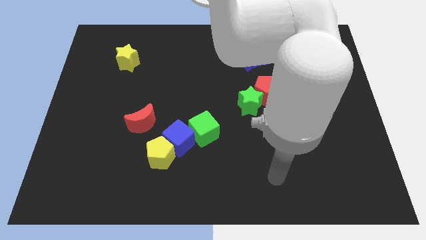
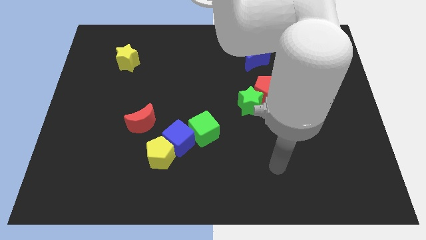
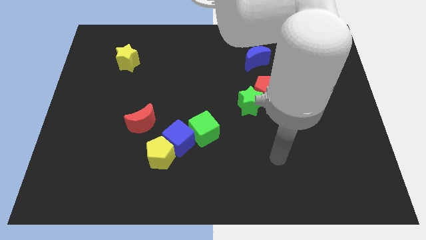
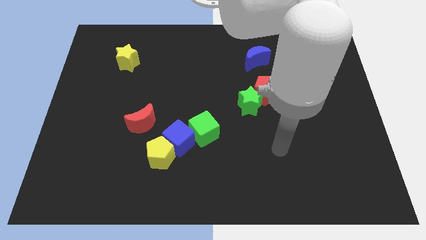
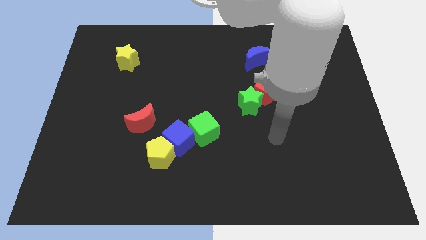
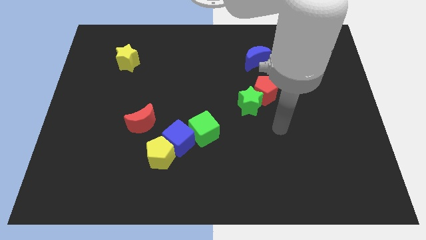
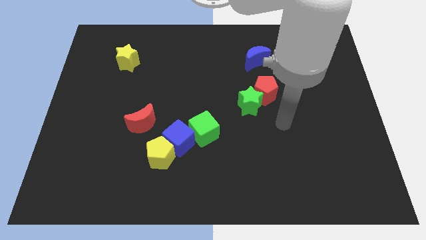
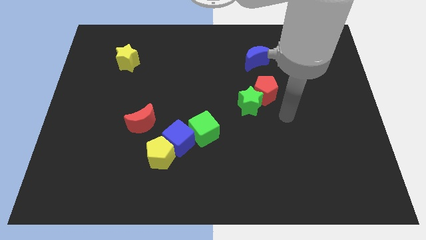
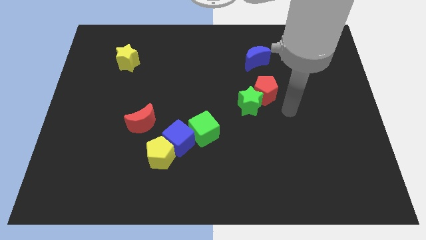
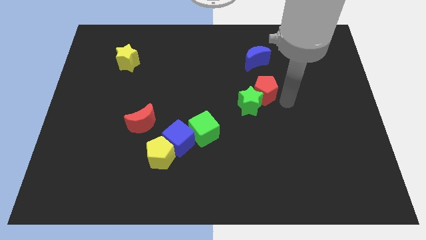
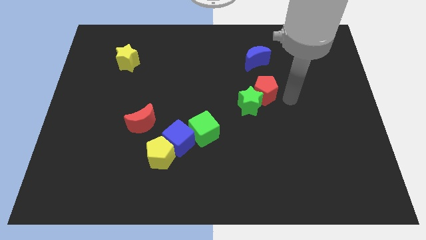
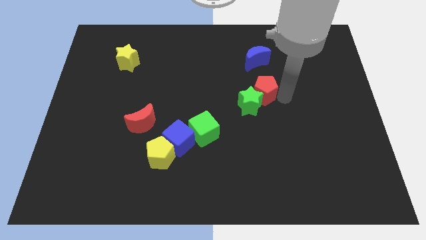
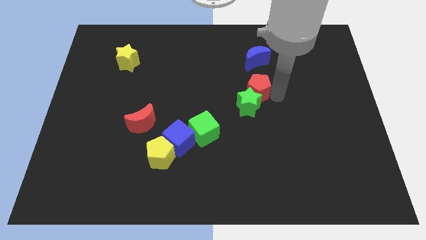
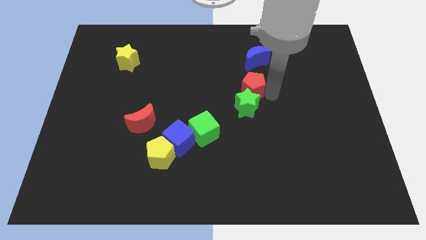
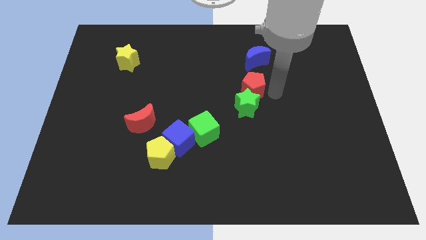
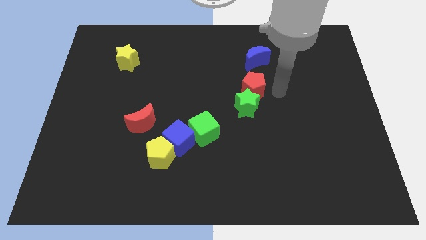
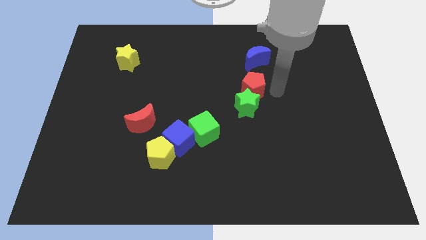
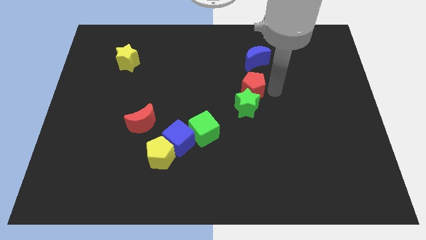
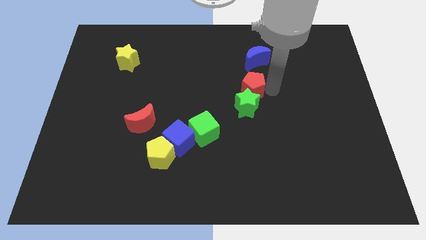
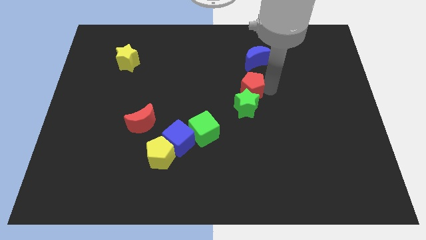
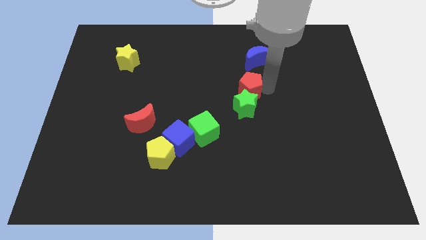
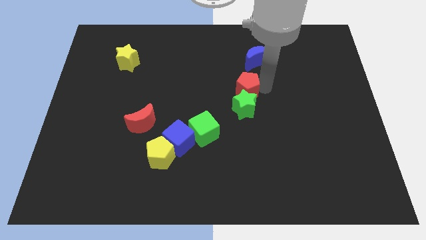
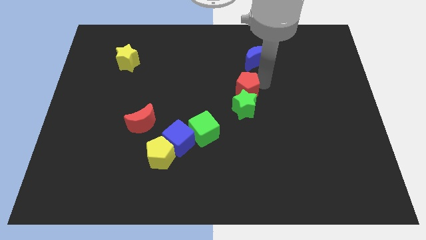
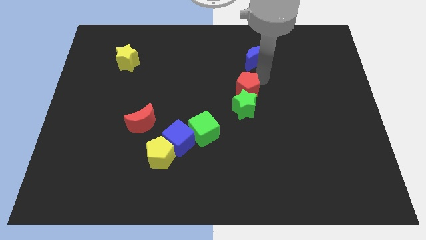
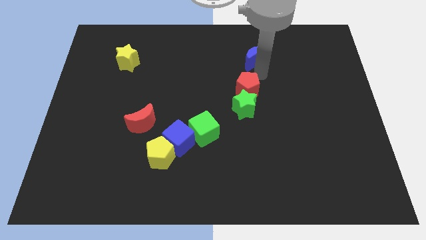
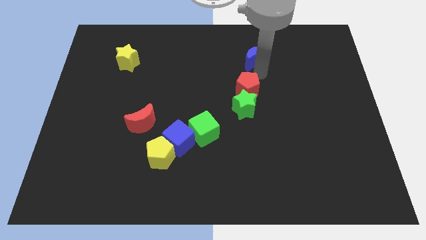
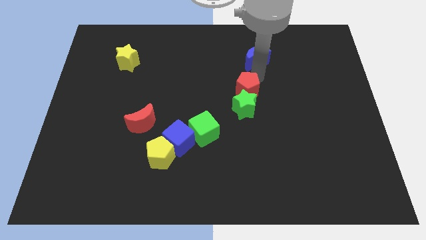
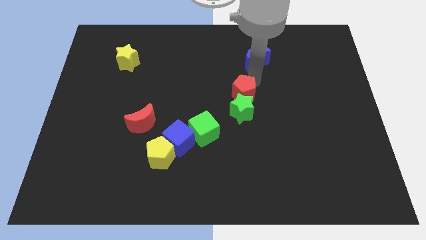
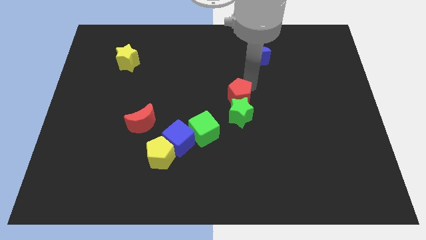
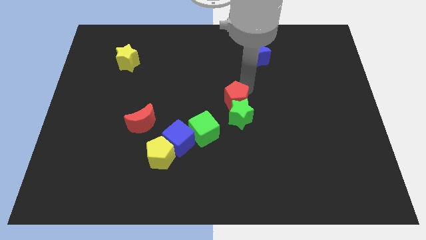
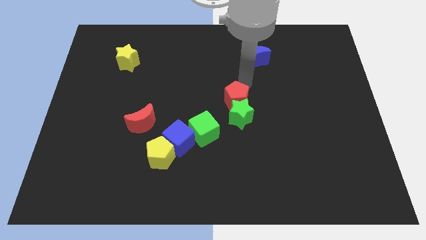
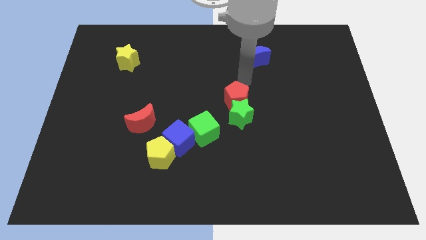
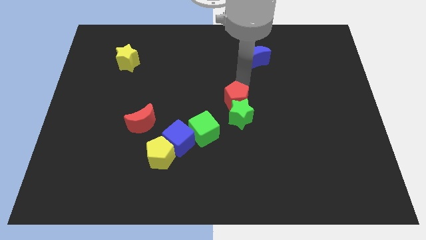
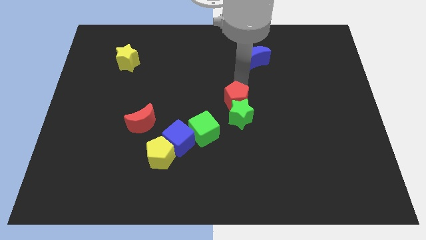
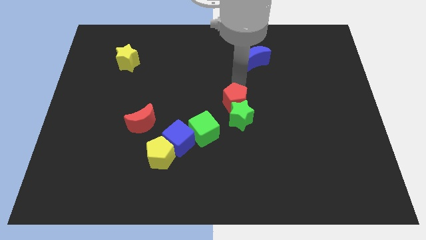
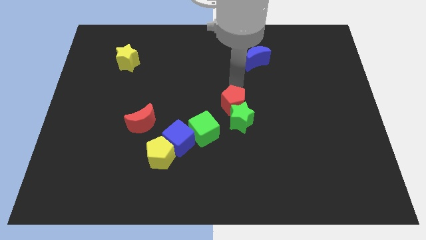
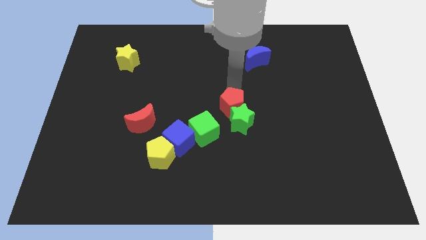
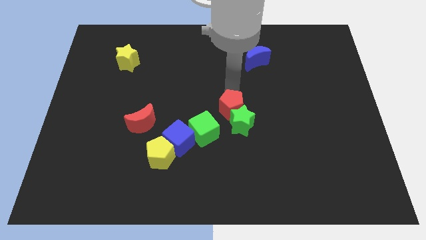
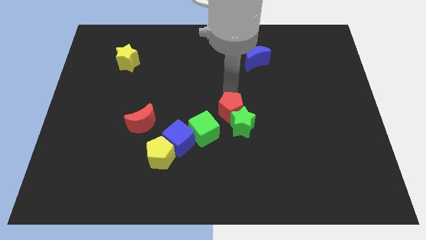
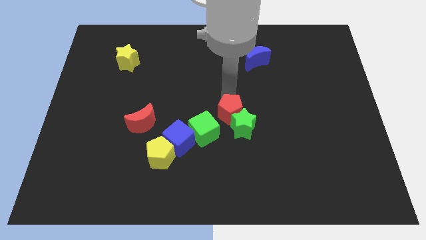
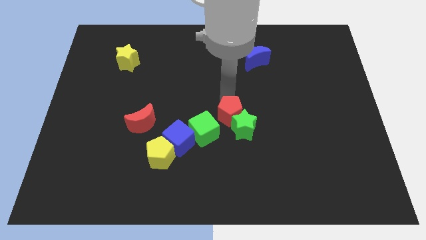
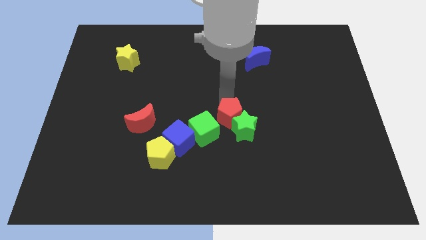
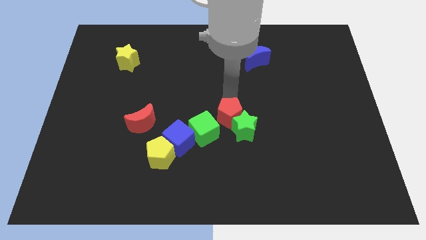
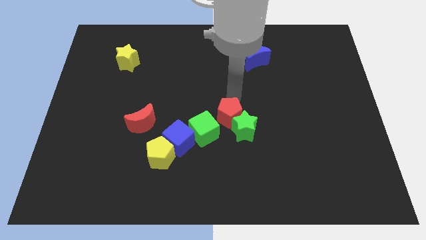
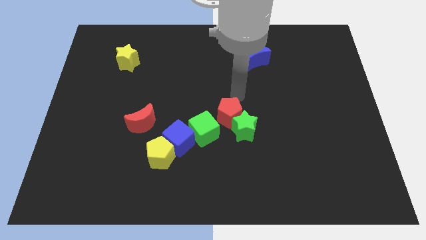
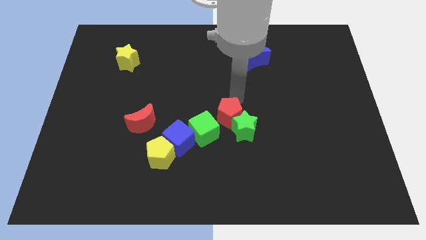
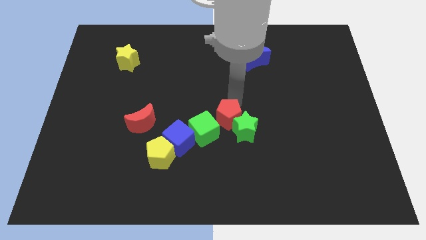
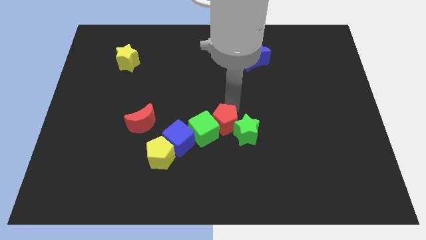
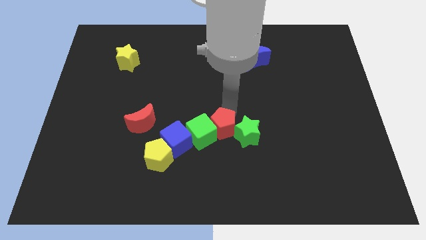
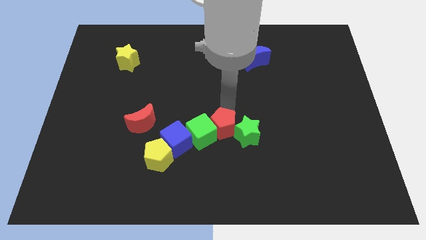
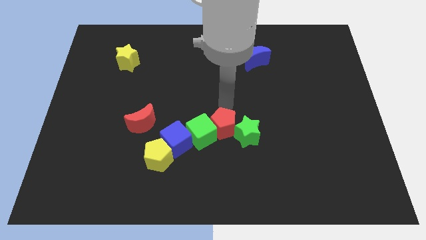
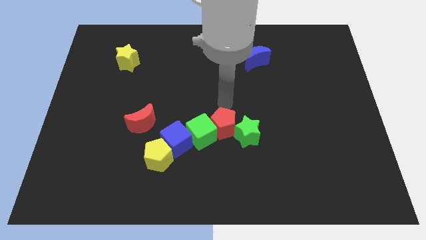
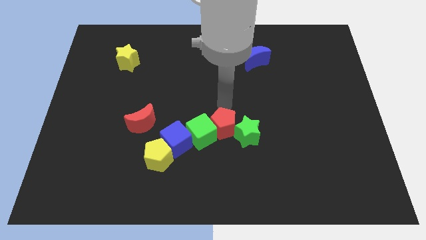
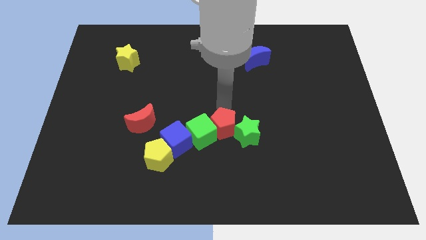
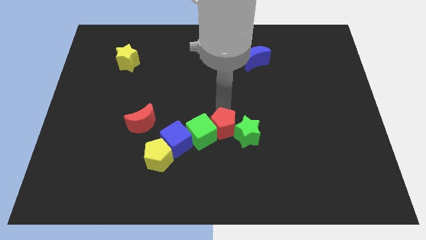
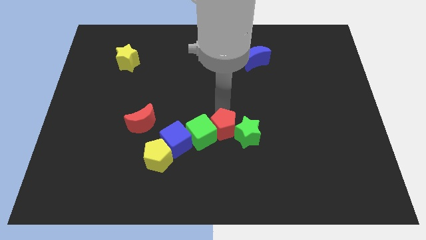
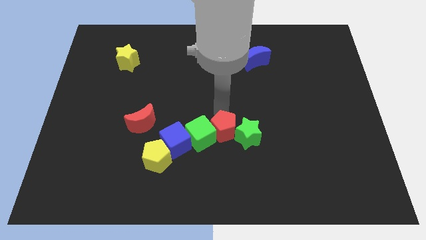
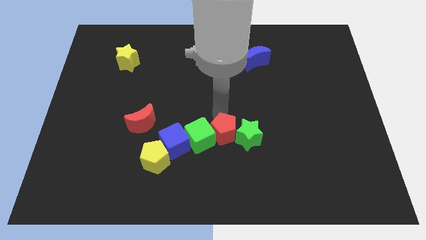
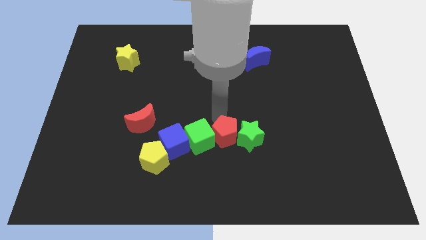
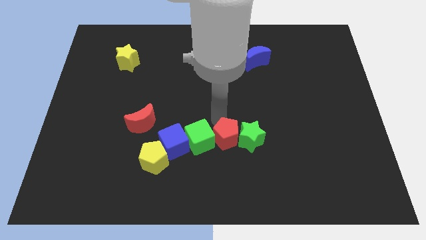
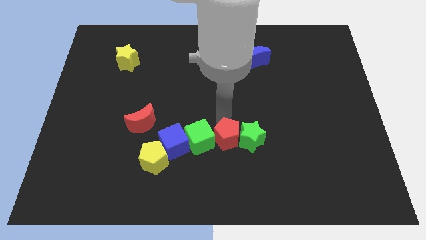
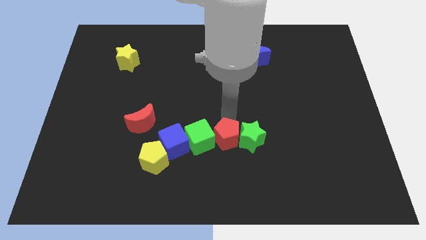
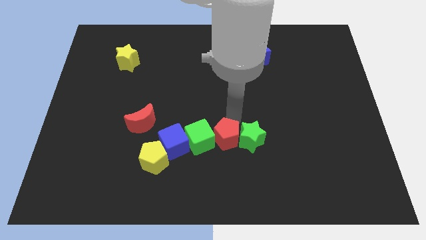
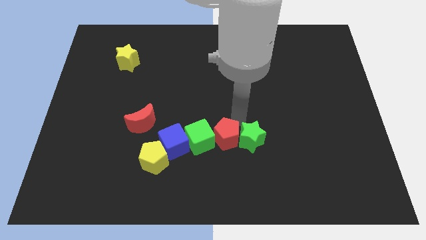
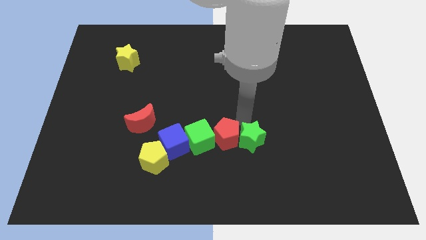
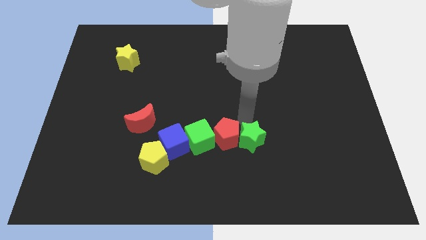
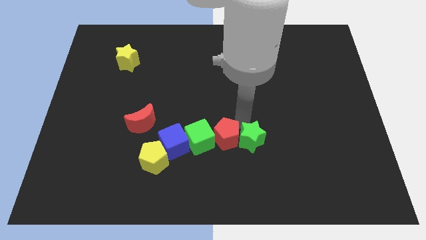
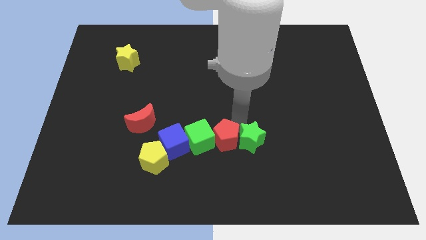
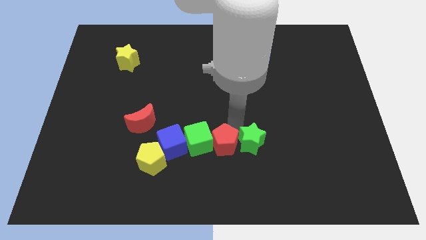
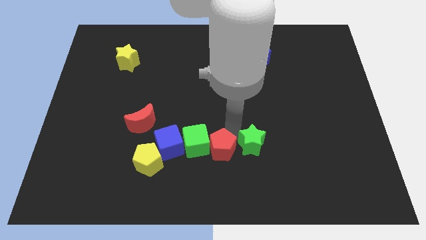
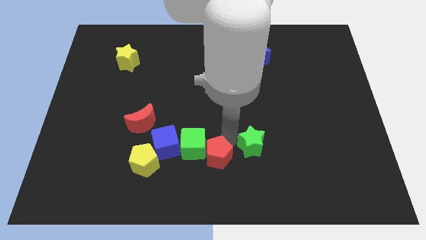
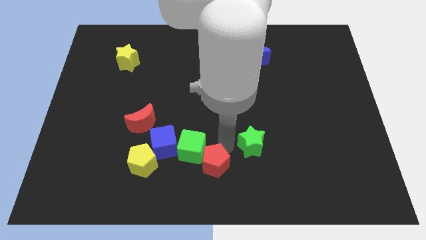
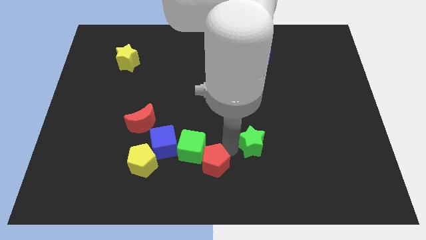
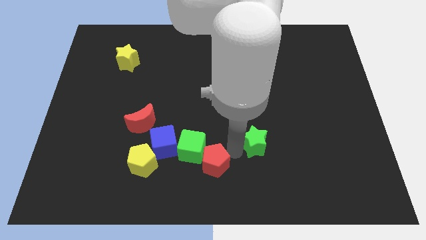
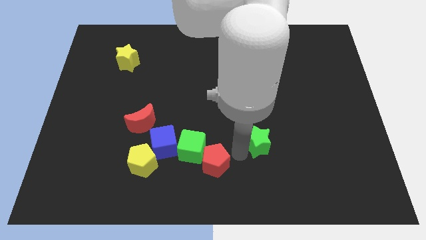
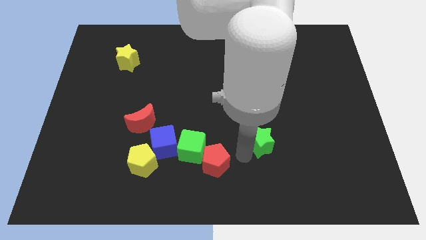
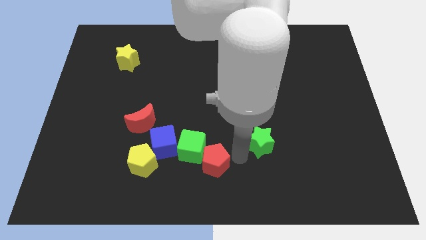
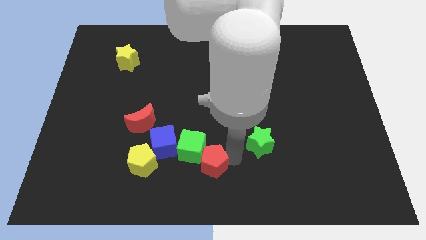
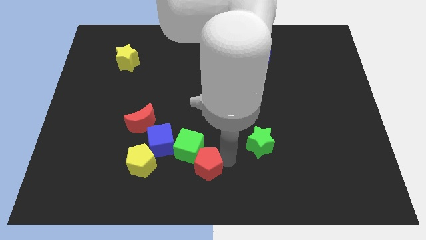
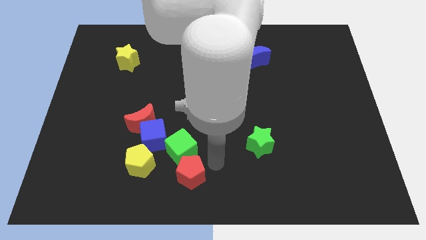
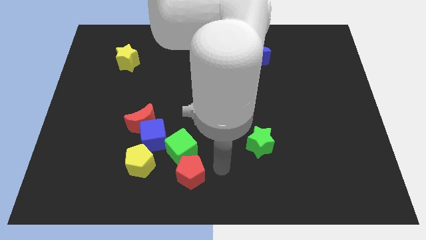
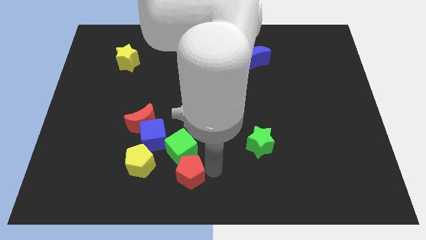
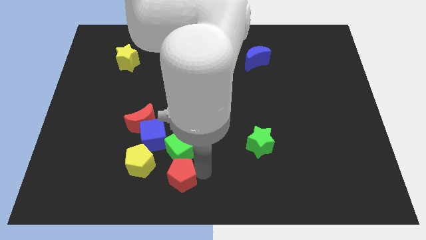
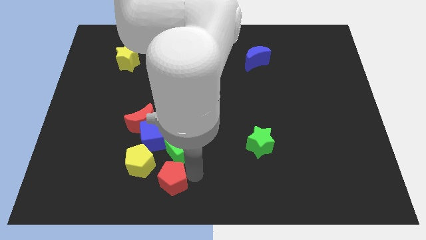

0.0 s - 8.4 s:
slide the red pentagon to the bottom of the blue cube
